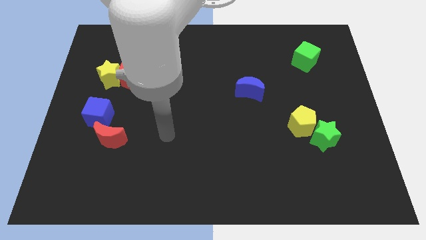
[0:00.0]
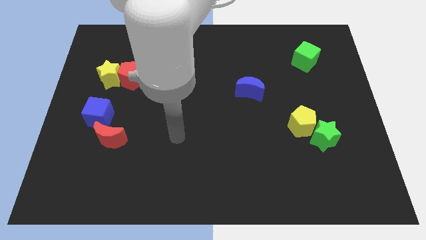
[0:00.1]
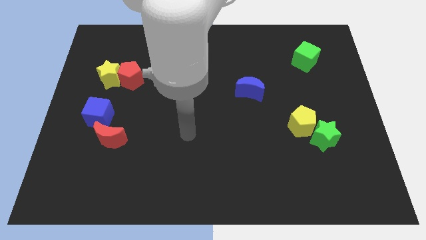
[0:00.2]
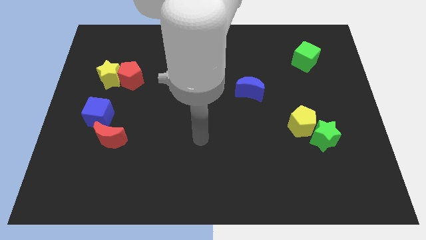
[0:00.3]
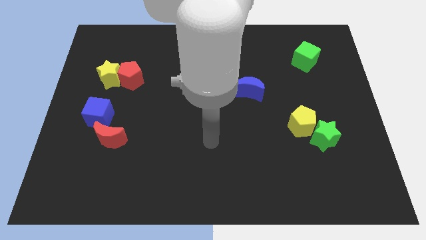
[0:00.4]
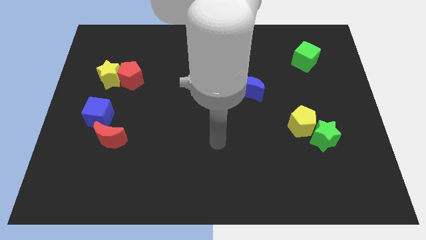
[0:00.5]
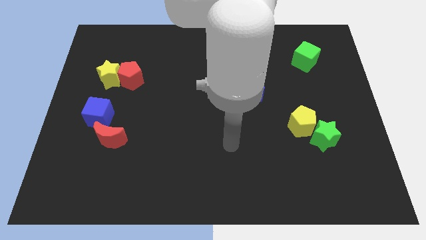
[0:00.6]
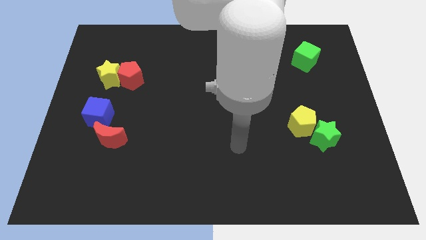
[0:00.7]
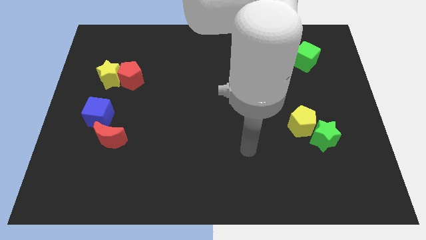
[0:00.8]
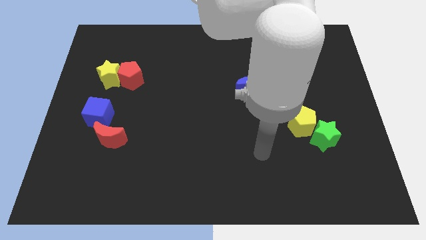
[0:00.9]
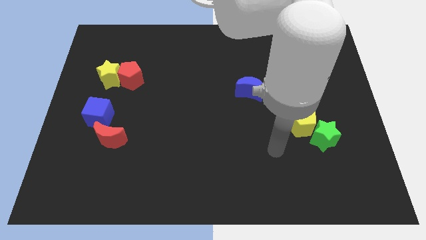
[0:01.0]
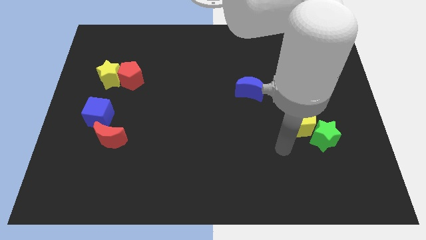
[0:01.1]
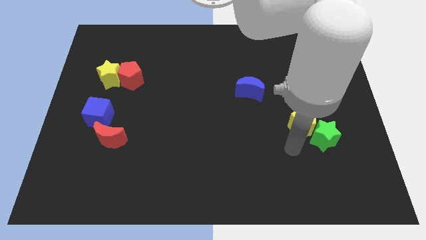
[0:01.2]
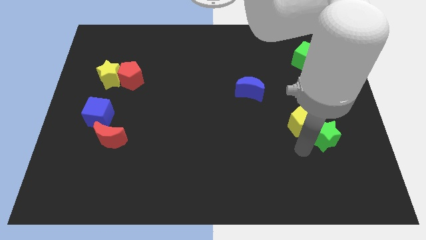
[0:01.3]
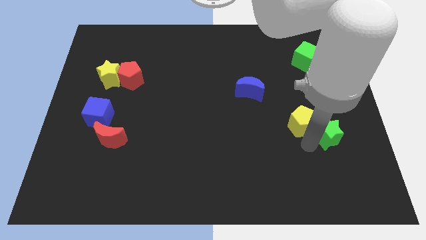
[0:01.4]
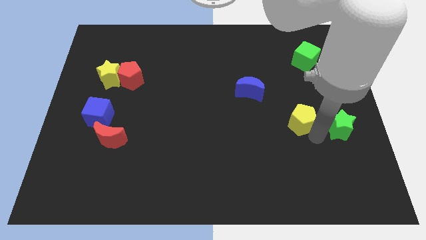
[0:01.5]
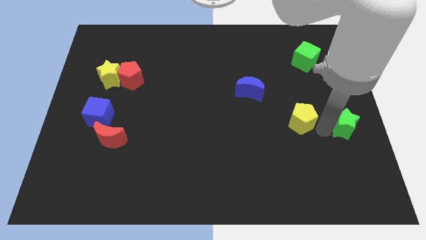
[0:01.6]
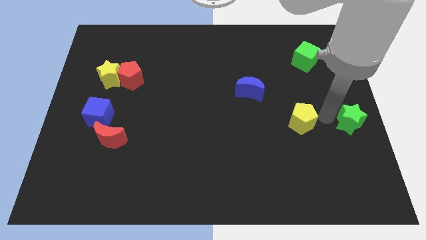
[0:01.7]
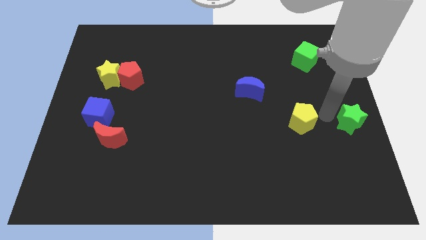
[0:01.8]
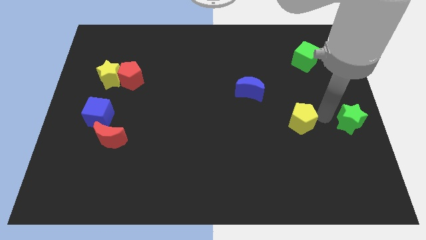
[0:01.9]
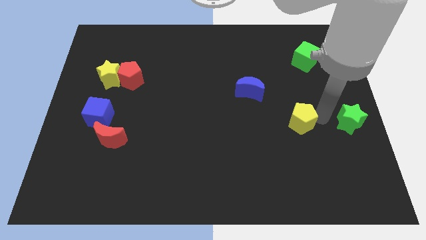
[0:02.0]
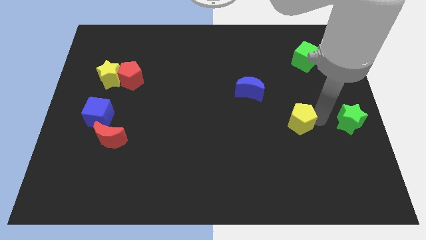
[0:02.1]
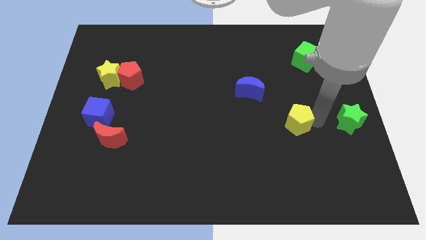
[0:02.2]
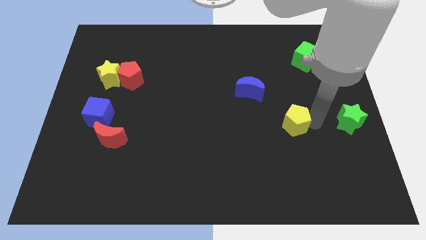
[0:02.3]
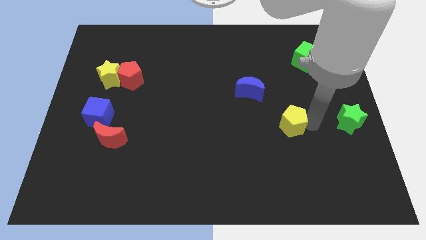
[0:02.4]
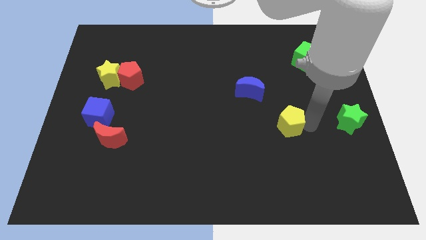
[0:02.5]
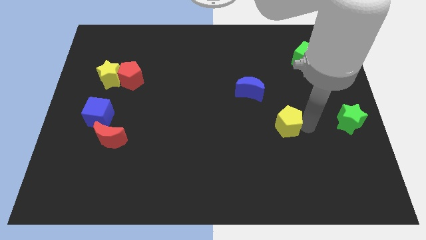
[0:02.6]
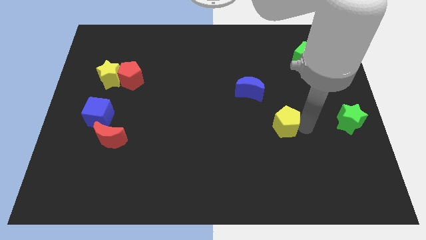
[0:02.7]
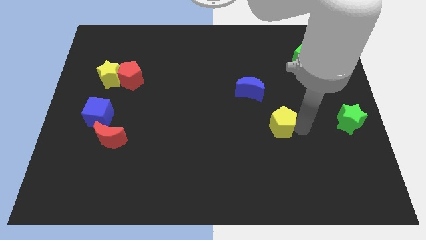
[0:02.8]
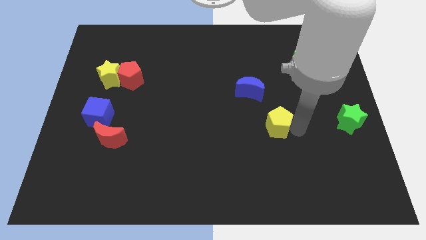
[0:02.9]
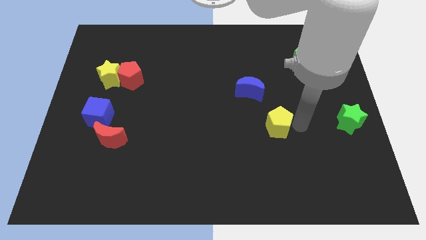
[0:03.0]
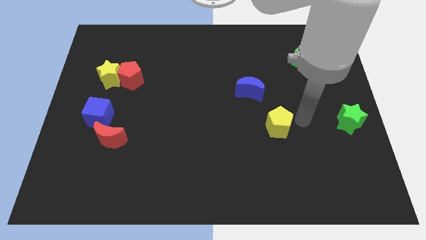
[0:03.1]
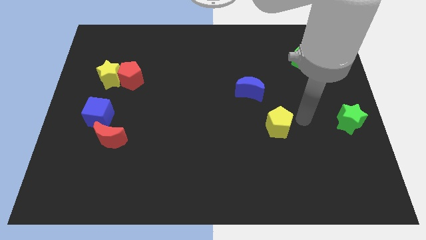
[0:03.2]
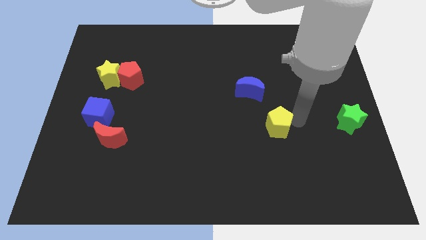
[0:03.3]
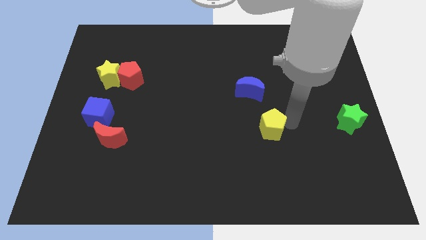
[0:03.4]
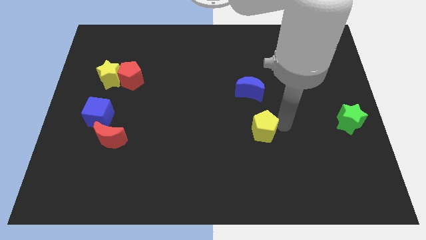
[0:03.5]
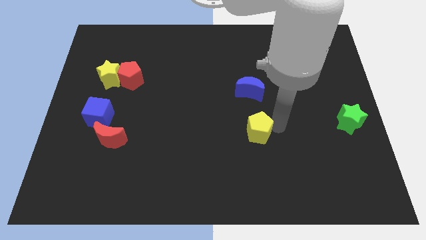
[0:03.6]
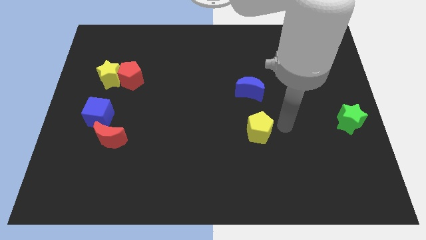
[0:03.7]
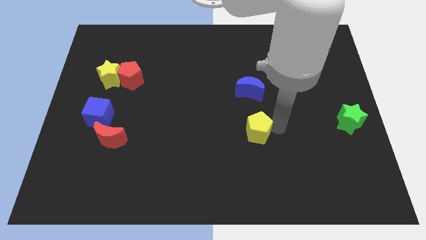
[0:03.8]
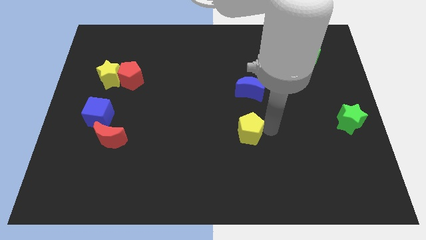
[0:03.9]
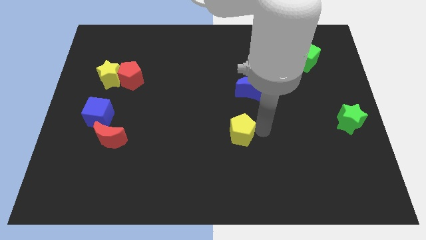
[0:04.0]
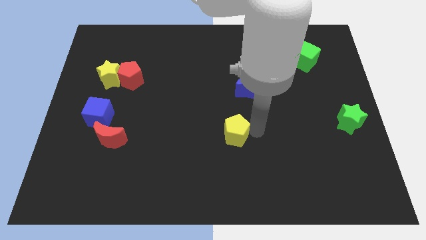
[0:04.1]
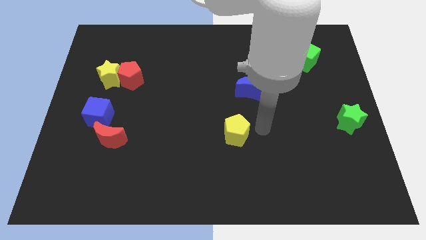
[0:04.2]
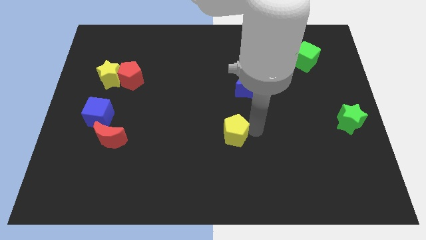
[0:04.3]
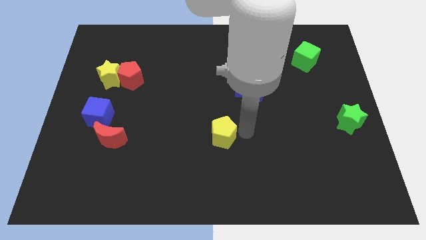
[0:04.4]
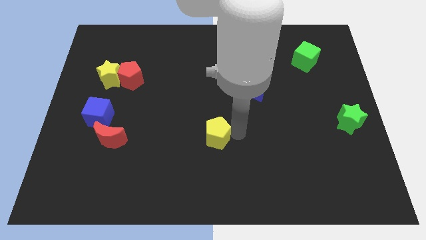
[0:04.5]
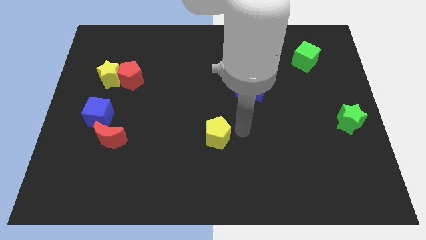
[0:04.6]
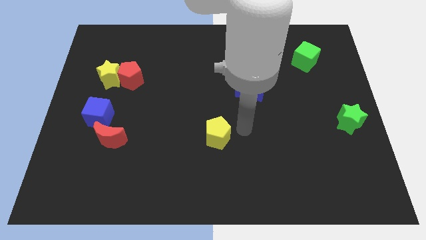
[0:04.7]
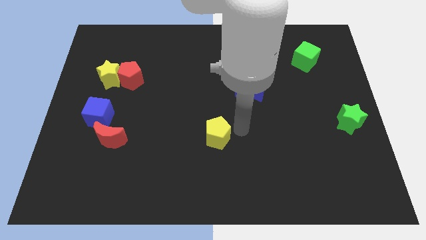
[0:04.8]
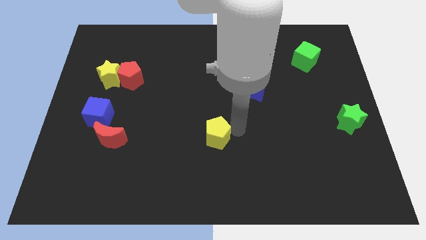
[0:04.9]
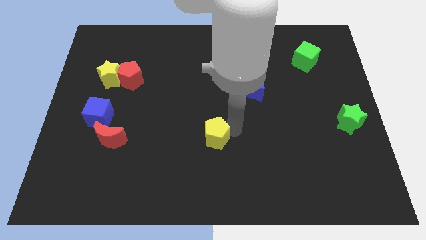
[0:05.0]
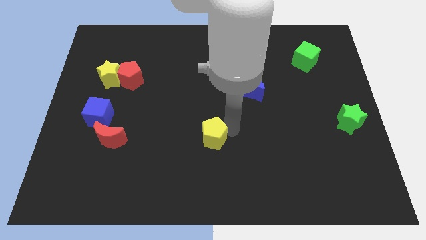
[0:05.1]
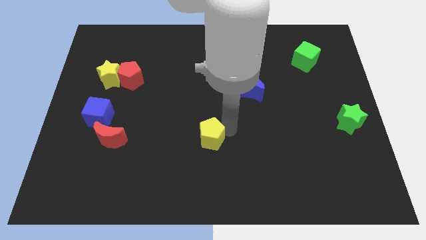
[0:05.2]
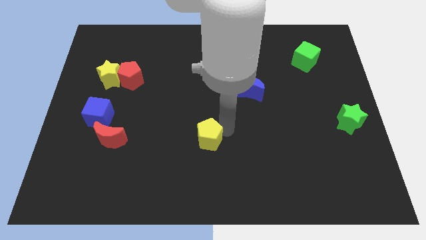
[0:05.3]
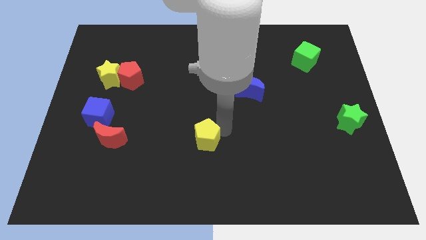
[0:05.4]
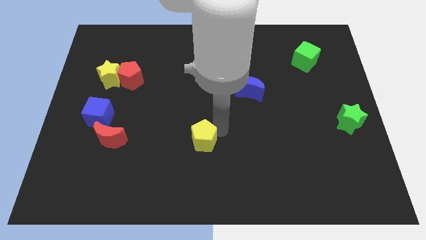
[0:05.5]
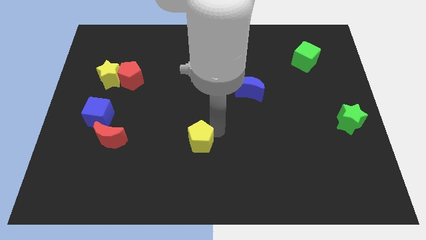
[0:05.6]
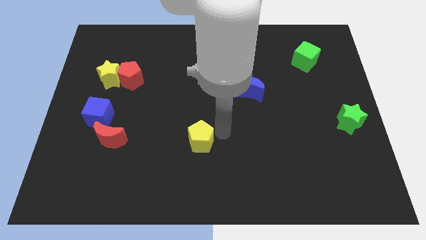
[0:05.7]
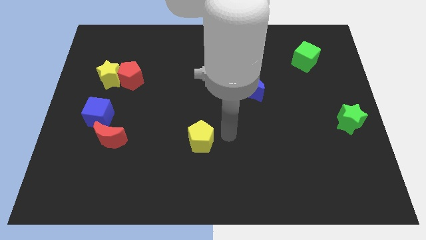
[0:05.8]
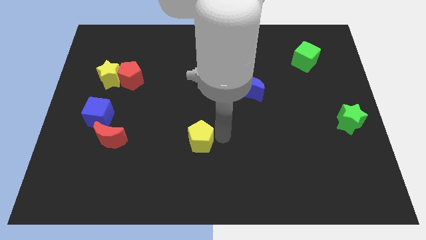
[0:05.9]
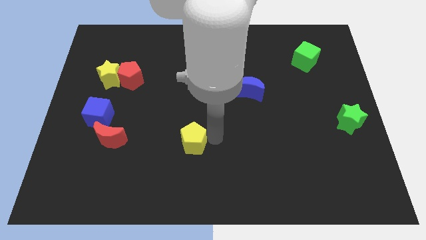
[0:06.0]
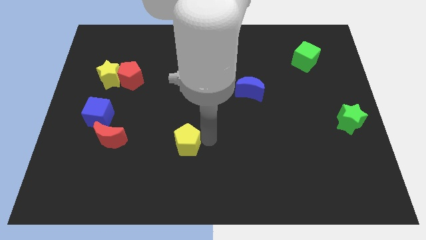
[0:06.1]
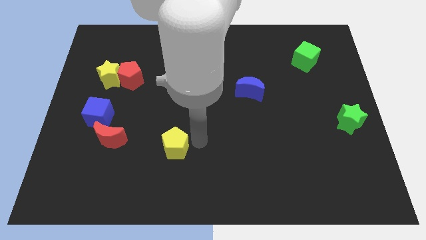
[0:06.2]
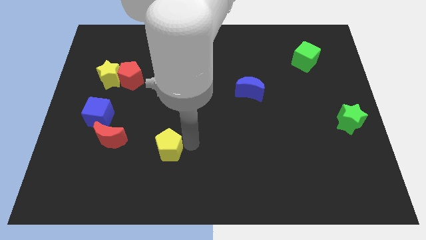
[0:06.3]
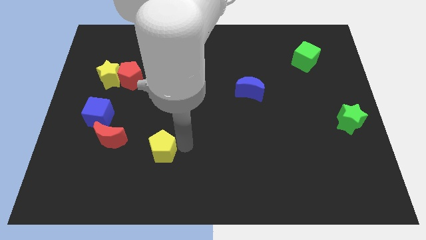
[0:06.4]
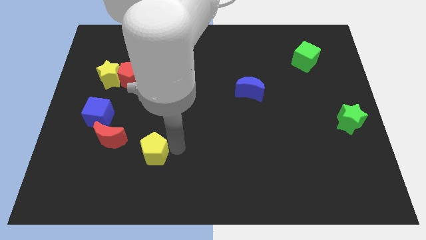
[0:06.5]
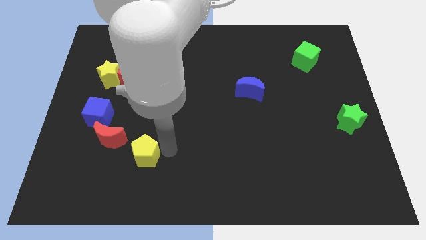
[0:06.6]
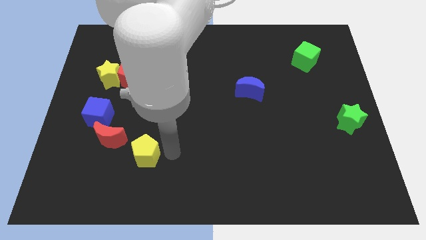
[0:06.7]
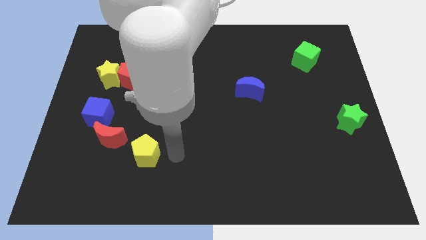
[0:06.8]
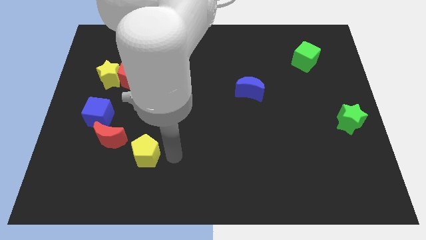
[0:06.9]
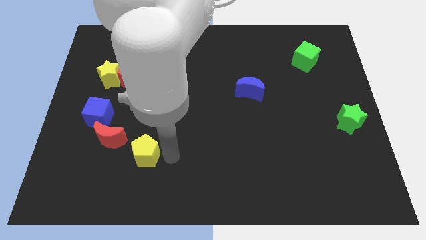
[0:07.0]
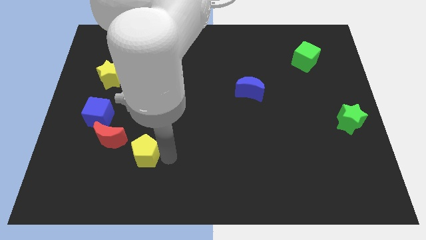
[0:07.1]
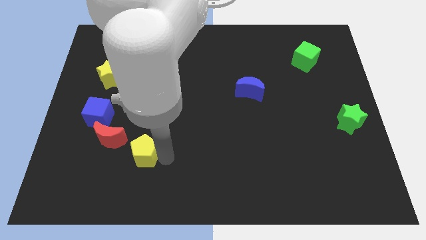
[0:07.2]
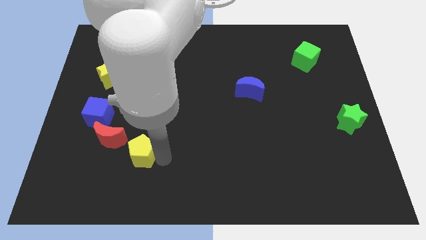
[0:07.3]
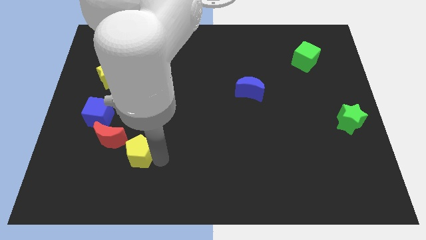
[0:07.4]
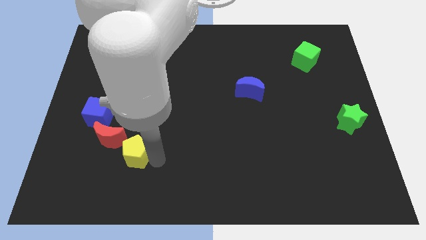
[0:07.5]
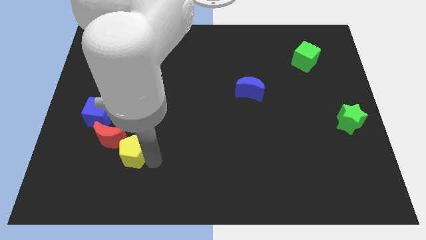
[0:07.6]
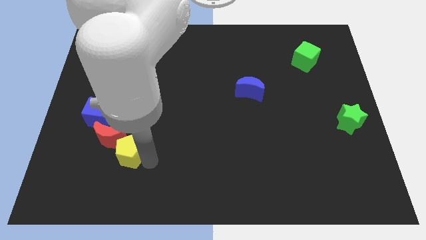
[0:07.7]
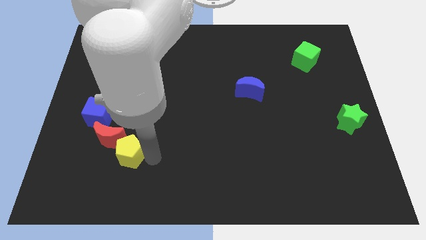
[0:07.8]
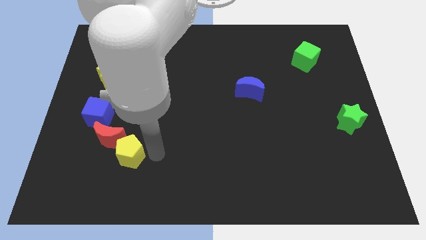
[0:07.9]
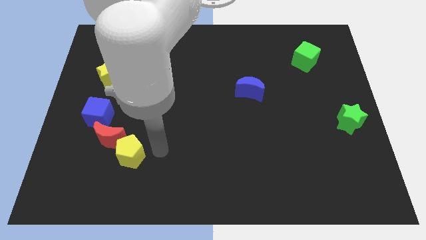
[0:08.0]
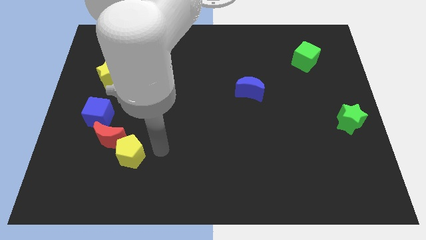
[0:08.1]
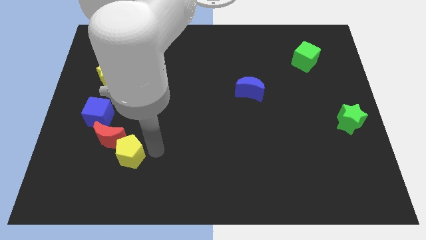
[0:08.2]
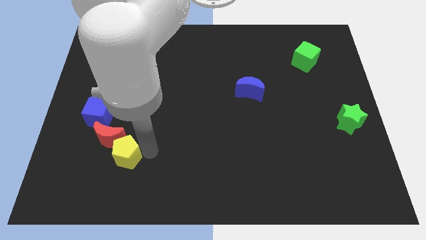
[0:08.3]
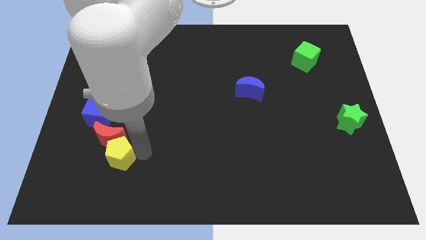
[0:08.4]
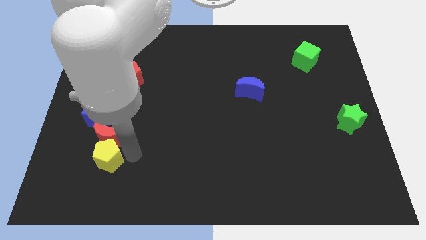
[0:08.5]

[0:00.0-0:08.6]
push the yellow pentagon to the bottom left of the red moon
